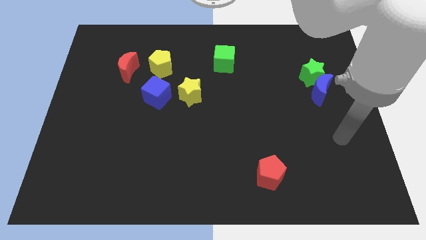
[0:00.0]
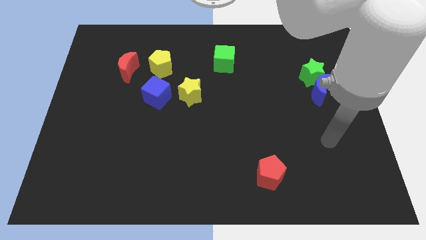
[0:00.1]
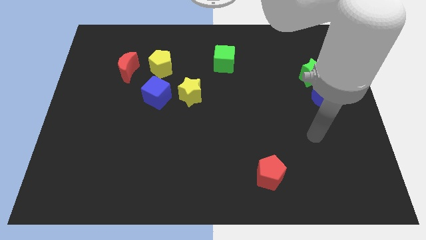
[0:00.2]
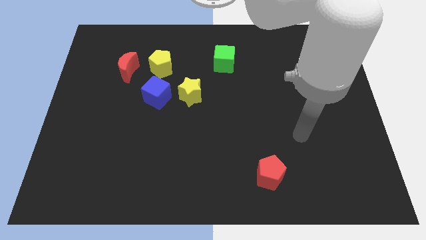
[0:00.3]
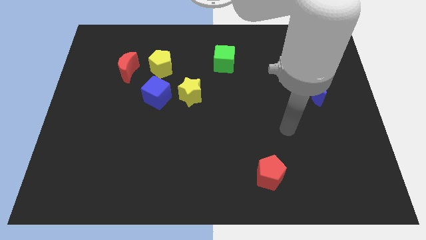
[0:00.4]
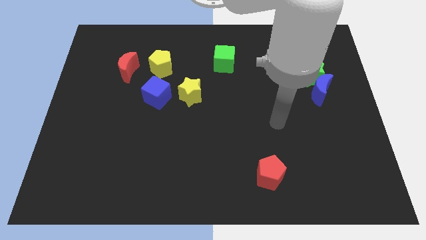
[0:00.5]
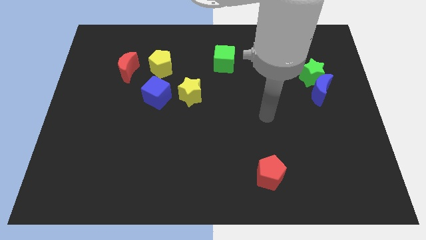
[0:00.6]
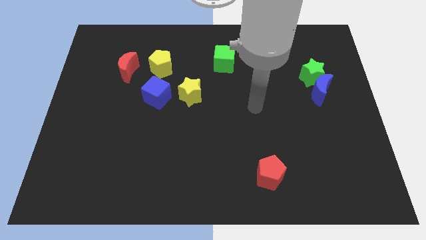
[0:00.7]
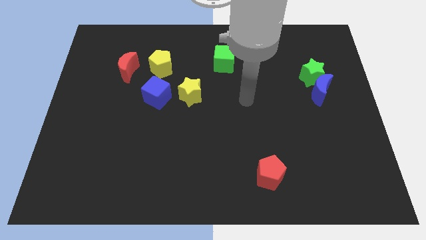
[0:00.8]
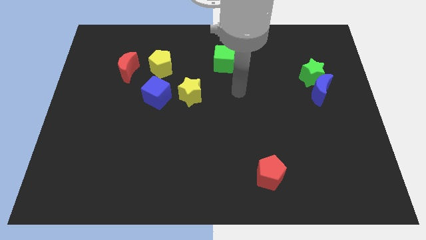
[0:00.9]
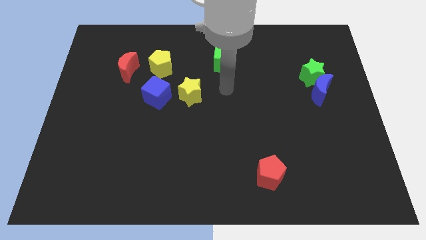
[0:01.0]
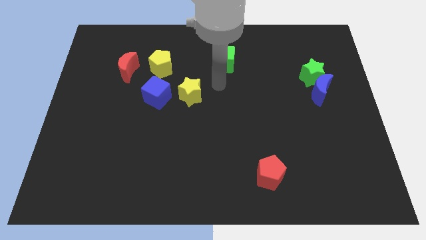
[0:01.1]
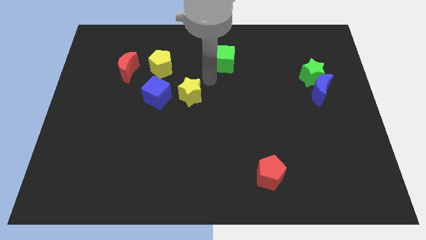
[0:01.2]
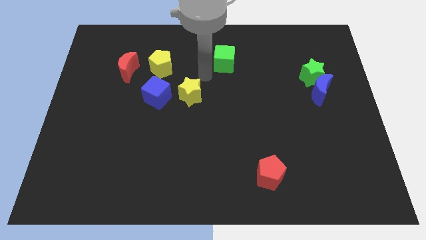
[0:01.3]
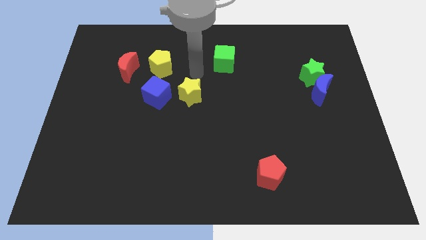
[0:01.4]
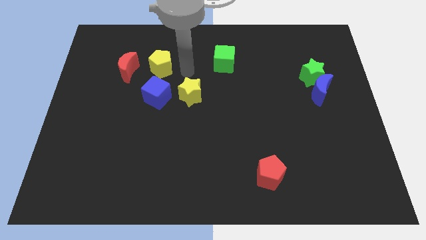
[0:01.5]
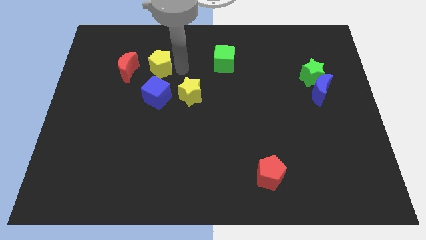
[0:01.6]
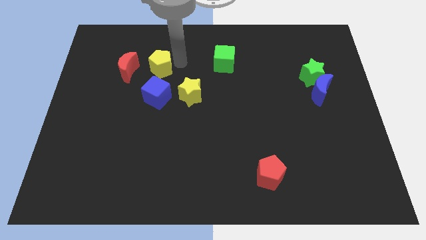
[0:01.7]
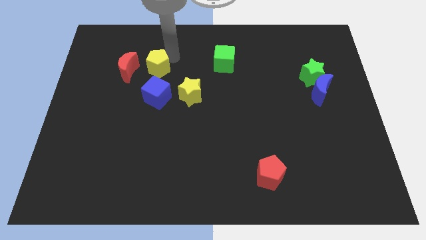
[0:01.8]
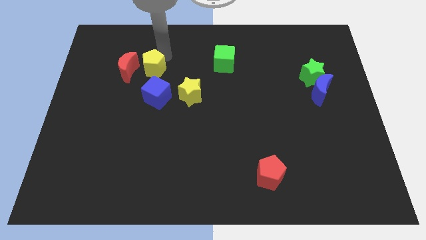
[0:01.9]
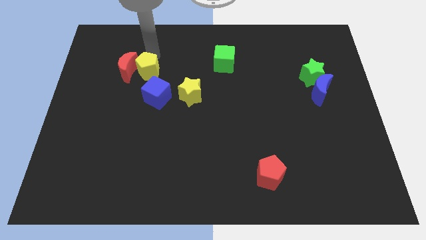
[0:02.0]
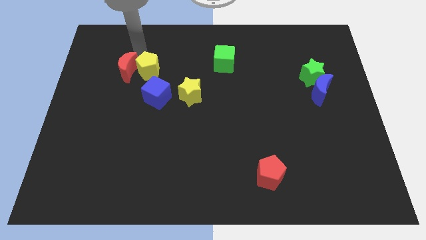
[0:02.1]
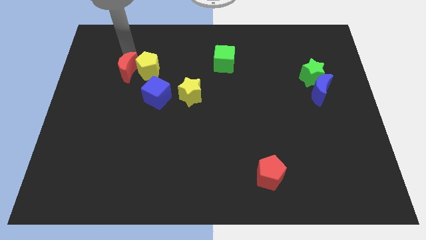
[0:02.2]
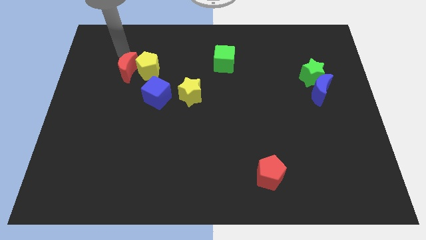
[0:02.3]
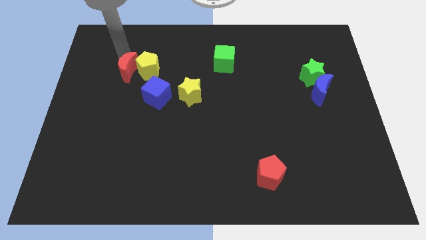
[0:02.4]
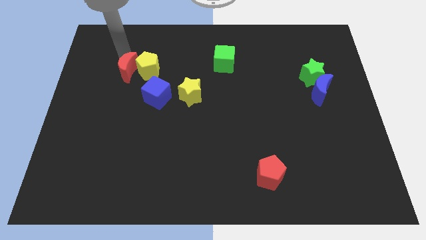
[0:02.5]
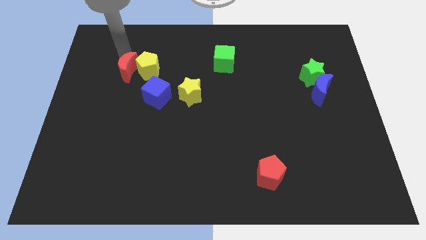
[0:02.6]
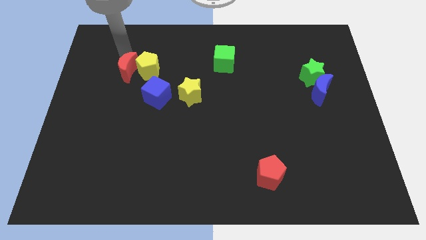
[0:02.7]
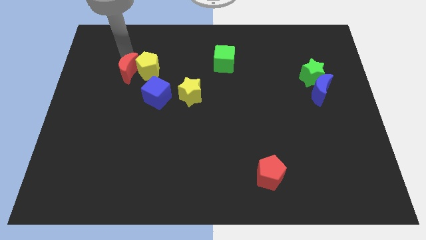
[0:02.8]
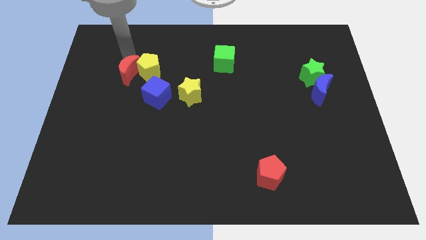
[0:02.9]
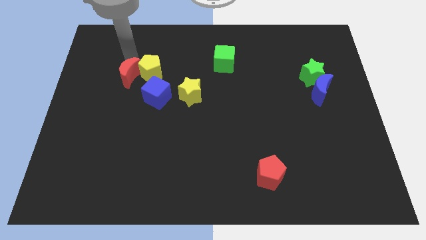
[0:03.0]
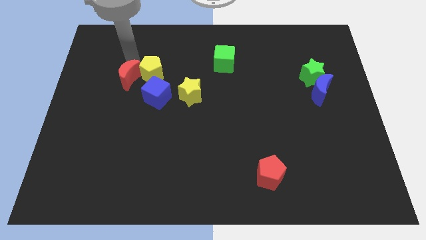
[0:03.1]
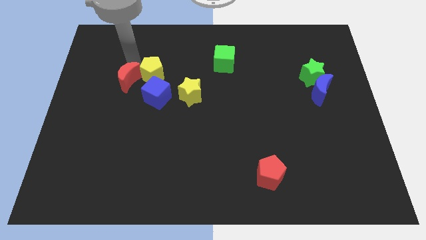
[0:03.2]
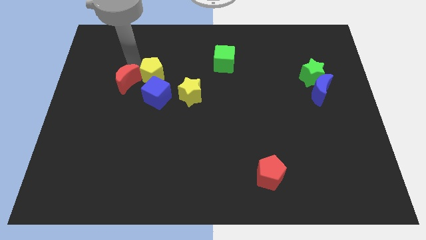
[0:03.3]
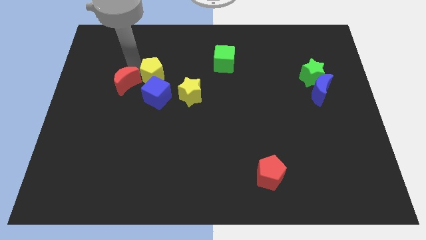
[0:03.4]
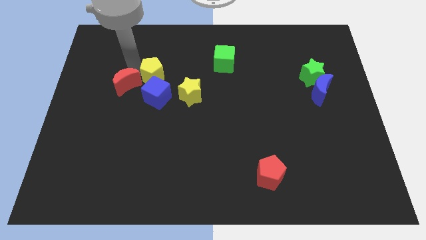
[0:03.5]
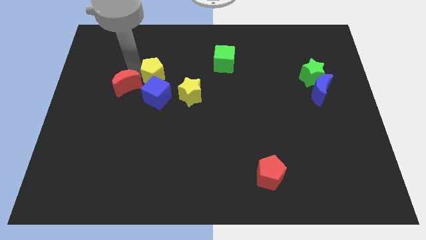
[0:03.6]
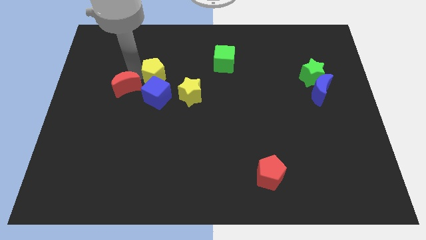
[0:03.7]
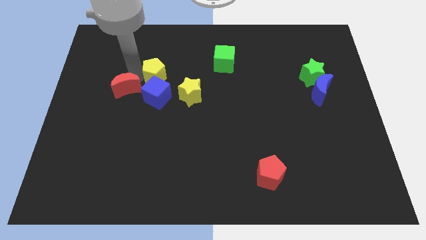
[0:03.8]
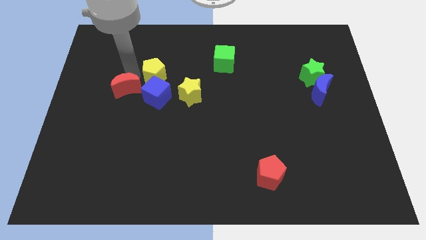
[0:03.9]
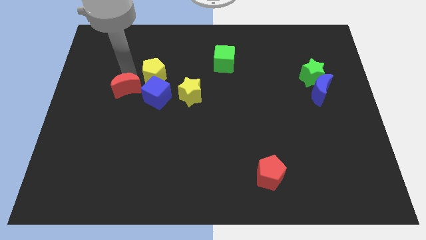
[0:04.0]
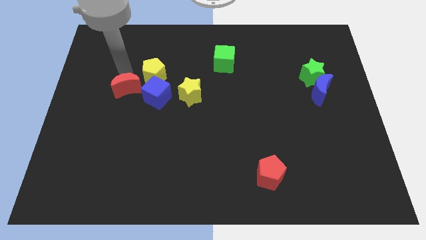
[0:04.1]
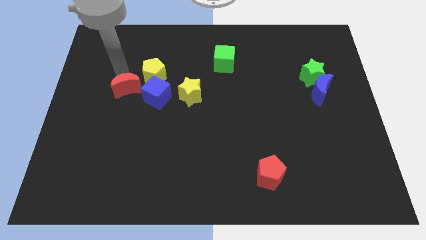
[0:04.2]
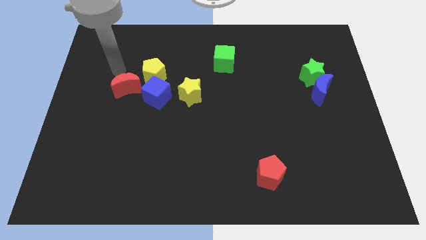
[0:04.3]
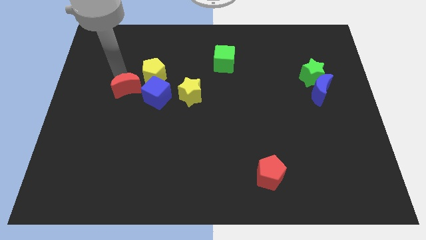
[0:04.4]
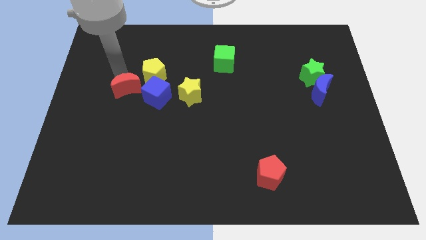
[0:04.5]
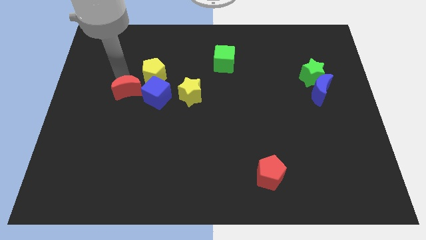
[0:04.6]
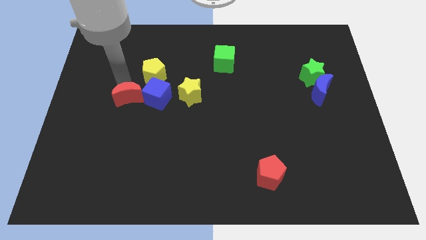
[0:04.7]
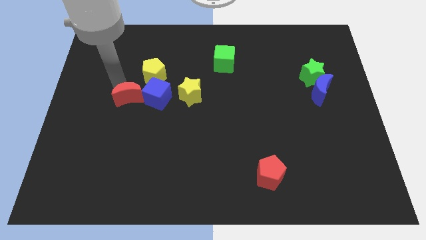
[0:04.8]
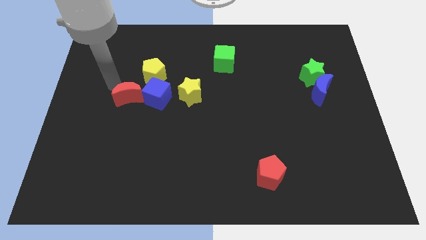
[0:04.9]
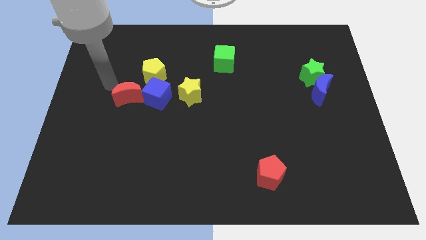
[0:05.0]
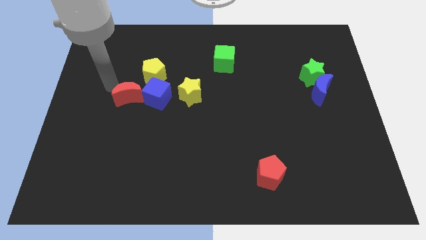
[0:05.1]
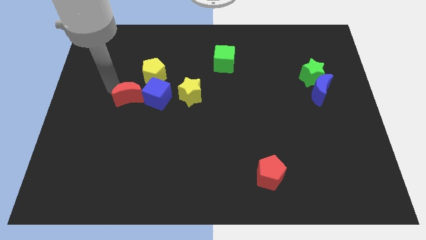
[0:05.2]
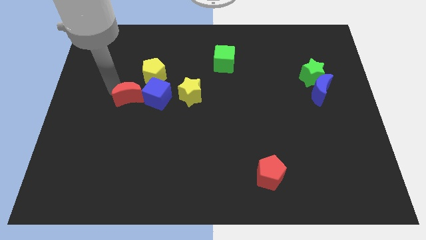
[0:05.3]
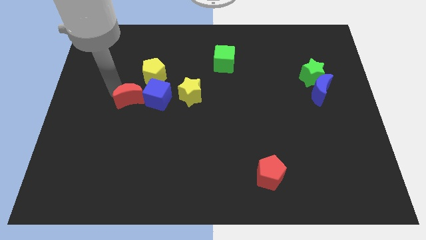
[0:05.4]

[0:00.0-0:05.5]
move the red moon somewhat down and then right

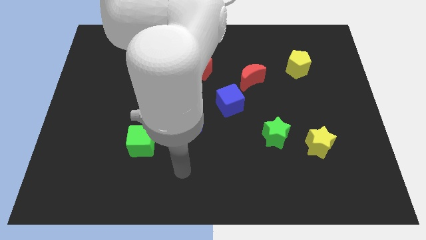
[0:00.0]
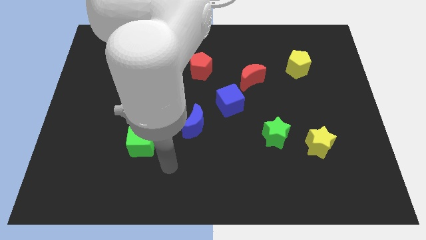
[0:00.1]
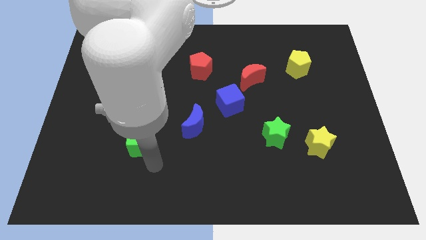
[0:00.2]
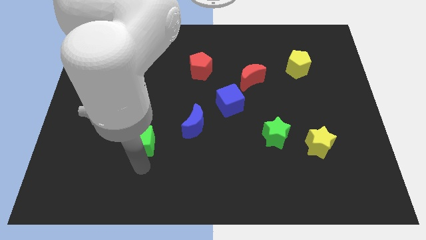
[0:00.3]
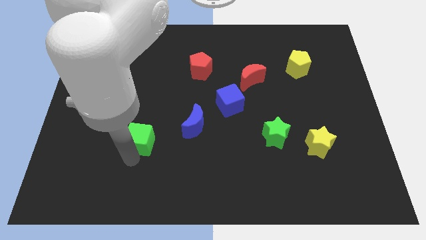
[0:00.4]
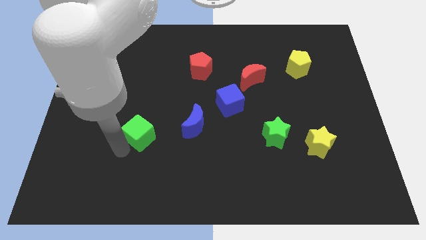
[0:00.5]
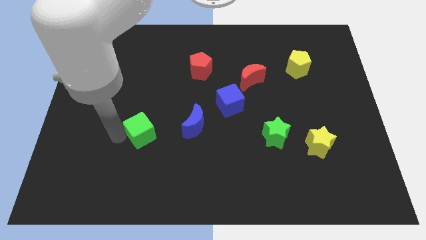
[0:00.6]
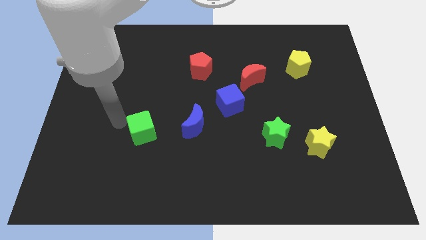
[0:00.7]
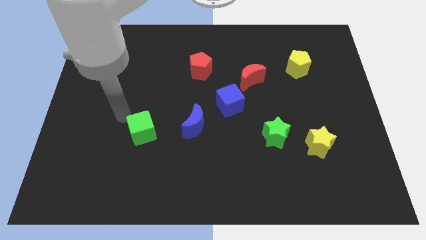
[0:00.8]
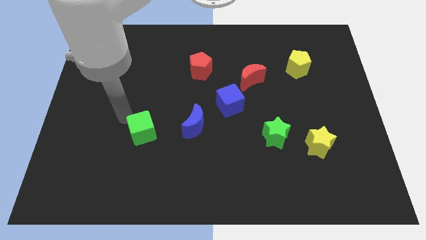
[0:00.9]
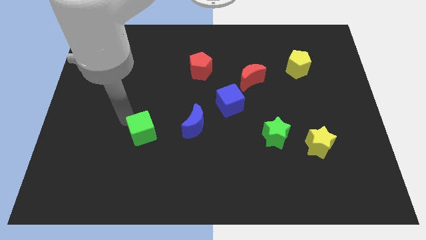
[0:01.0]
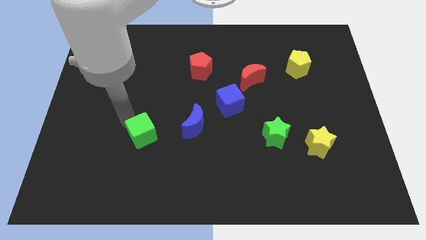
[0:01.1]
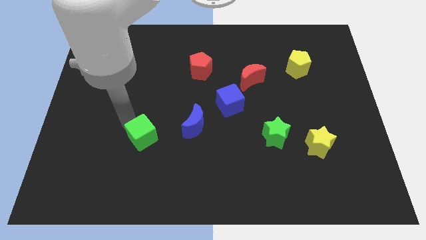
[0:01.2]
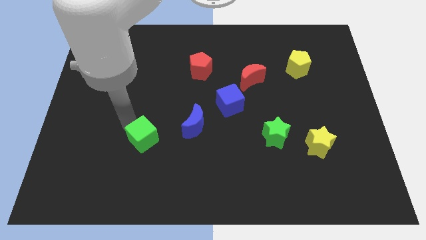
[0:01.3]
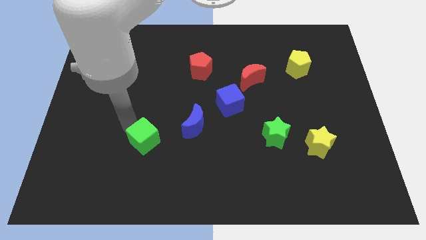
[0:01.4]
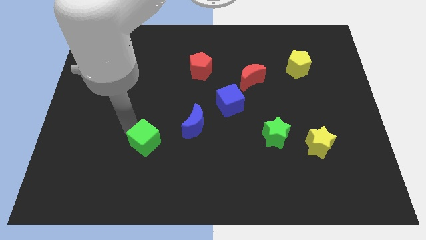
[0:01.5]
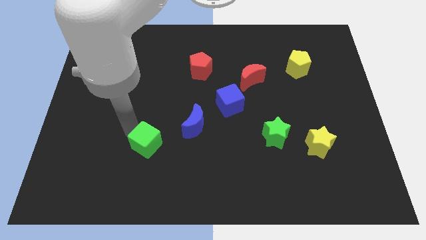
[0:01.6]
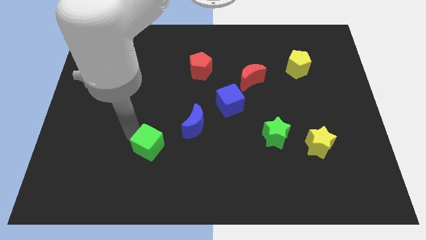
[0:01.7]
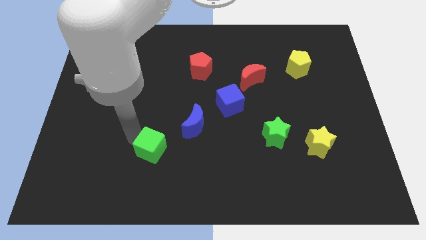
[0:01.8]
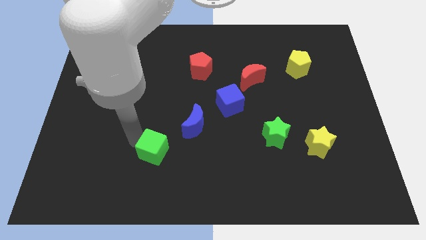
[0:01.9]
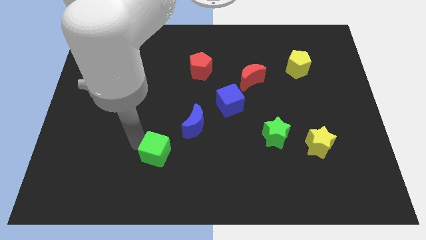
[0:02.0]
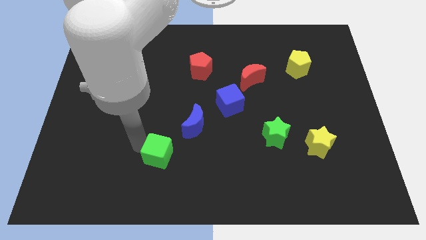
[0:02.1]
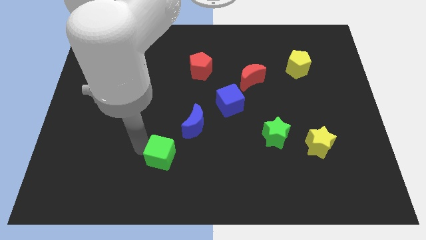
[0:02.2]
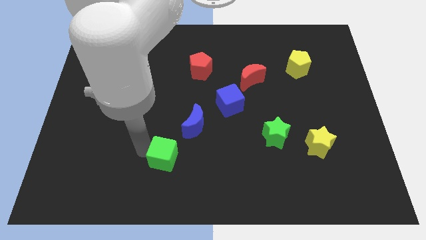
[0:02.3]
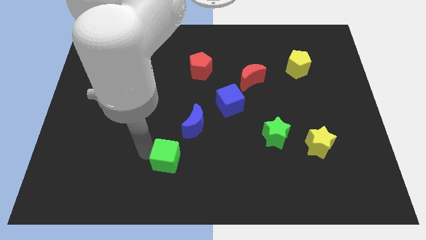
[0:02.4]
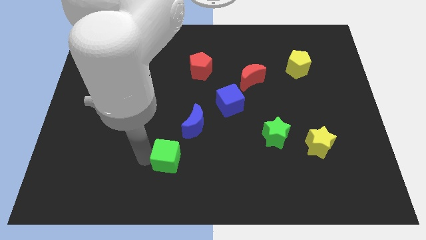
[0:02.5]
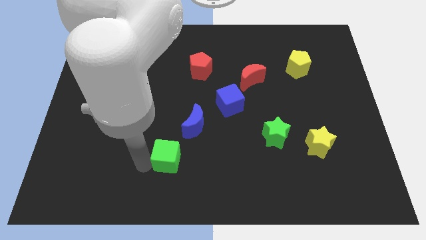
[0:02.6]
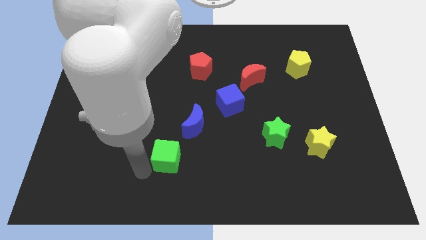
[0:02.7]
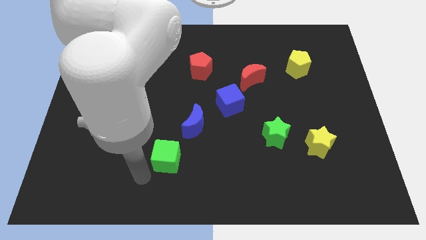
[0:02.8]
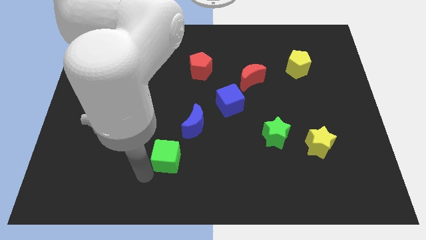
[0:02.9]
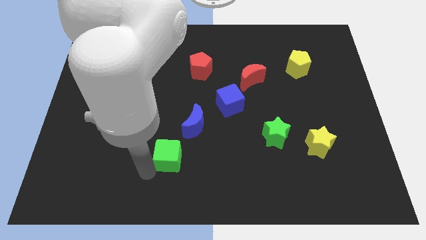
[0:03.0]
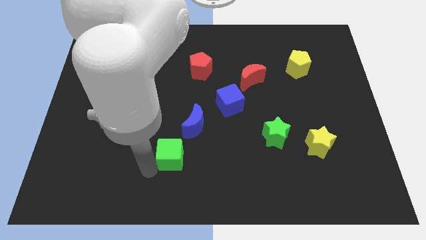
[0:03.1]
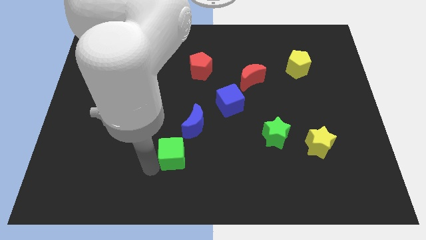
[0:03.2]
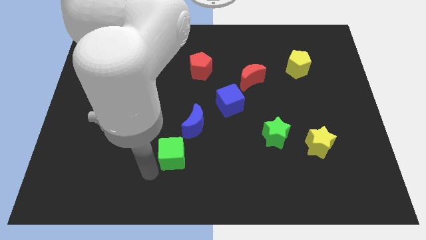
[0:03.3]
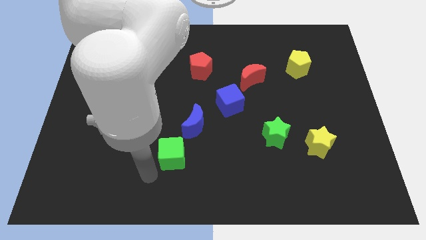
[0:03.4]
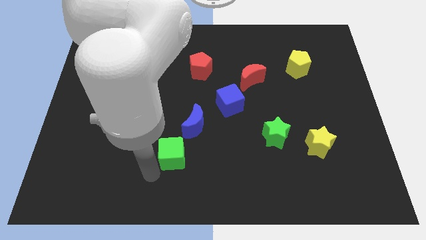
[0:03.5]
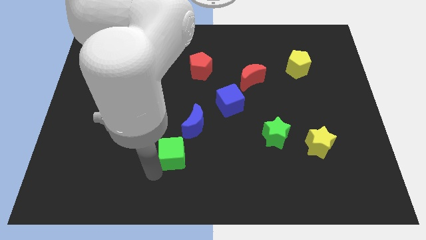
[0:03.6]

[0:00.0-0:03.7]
move the green cube to the right a little
